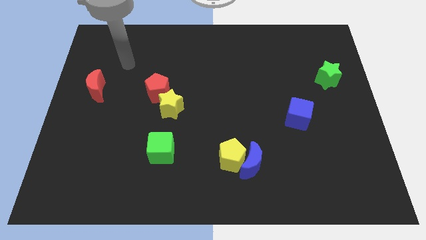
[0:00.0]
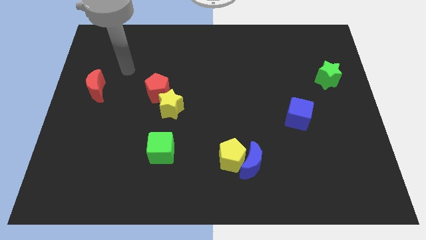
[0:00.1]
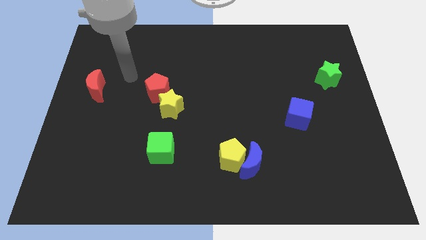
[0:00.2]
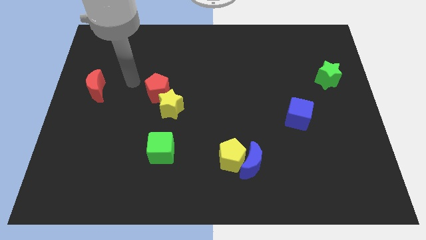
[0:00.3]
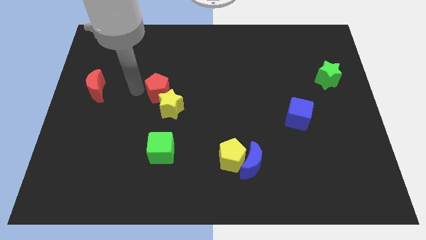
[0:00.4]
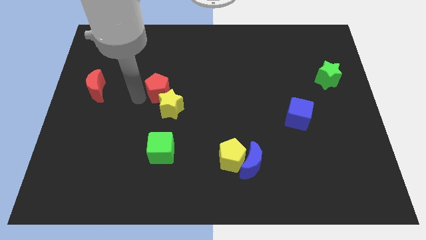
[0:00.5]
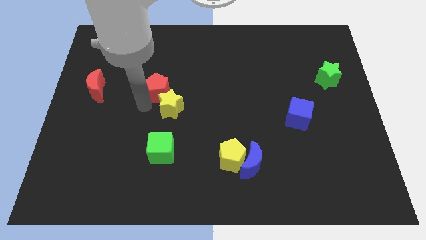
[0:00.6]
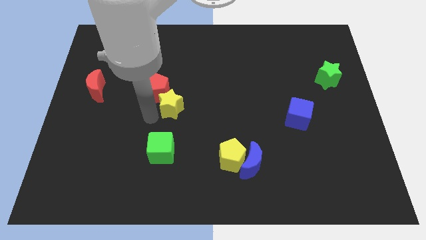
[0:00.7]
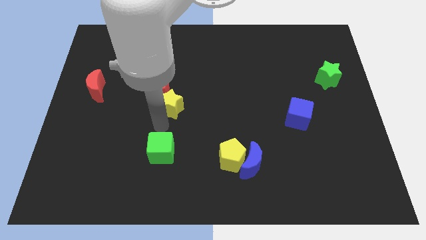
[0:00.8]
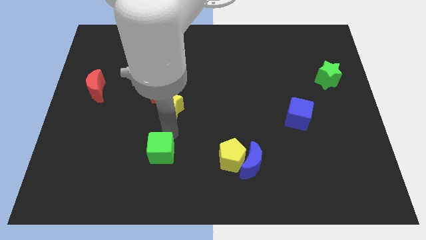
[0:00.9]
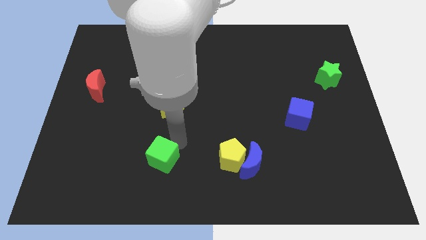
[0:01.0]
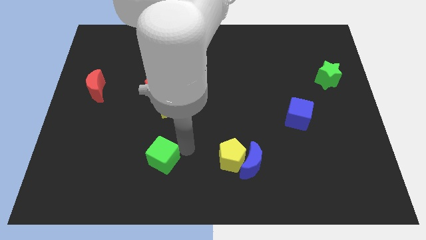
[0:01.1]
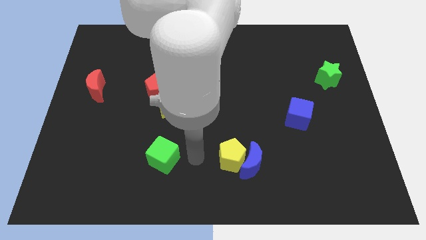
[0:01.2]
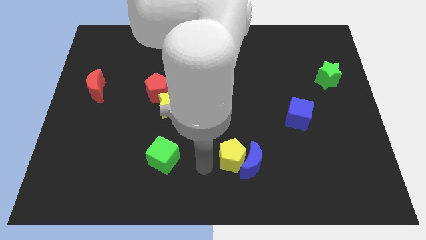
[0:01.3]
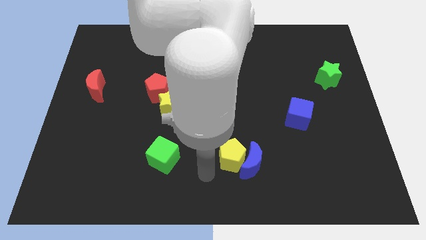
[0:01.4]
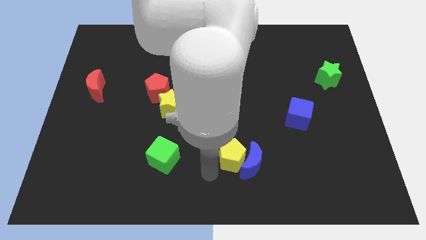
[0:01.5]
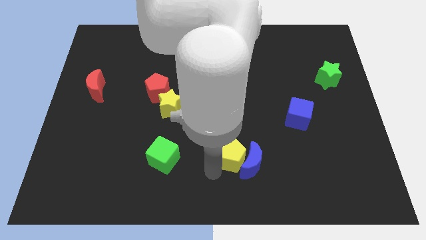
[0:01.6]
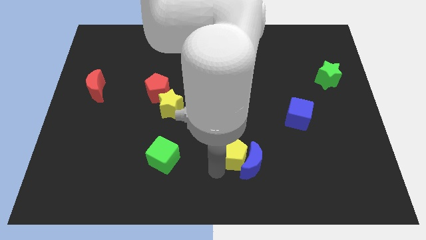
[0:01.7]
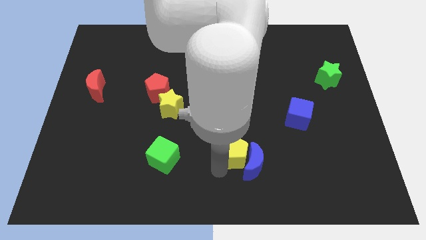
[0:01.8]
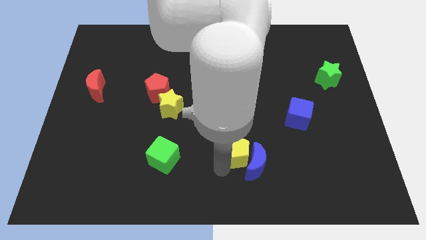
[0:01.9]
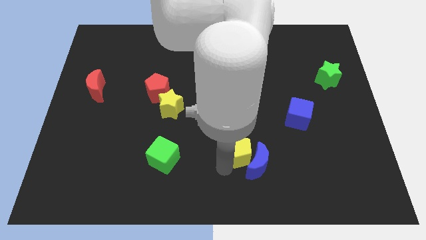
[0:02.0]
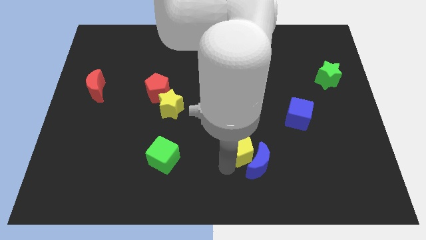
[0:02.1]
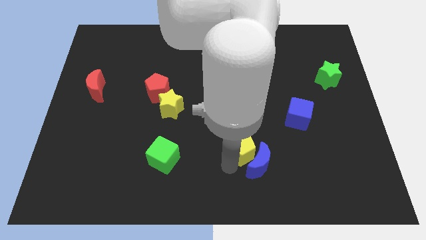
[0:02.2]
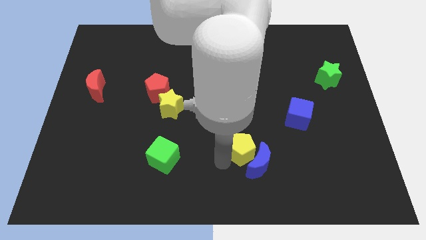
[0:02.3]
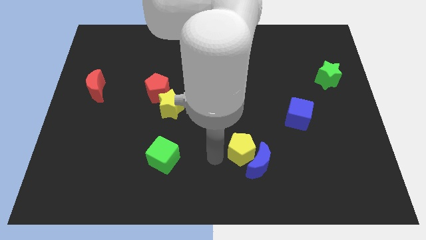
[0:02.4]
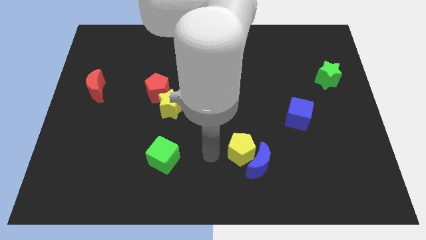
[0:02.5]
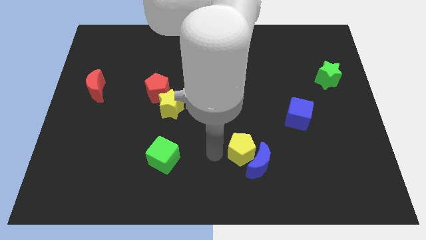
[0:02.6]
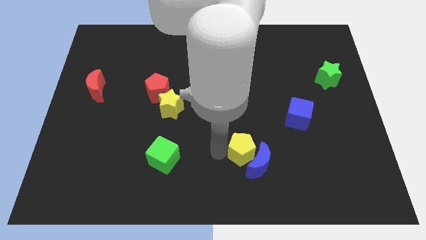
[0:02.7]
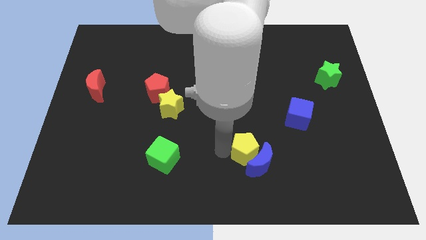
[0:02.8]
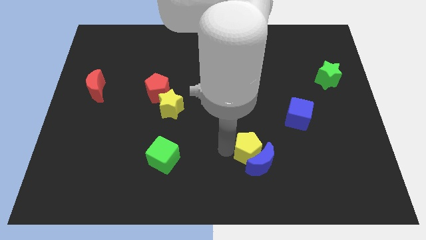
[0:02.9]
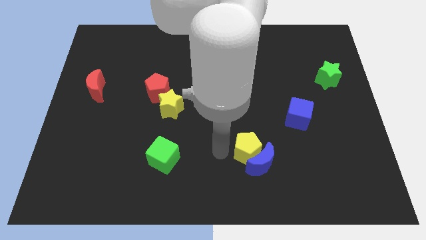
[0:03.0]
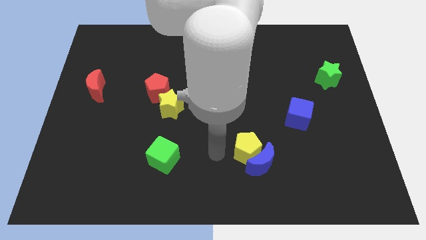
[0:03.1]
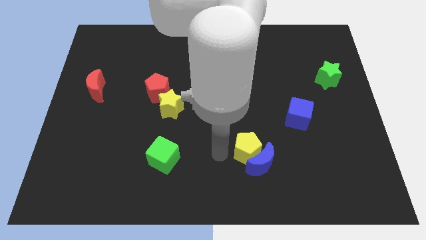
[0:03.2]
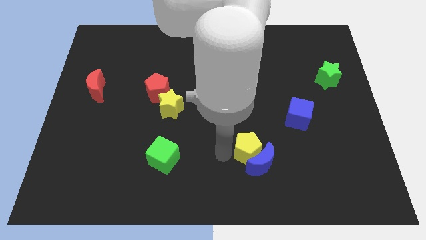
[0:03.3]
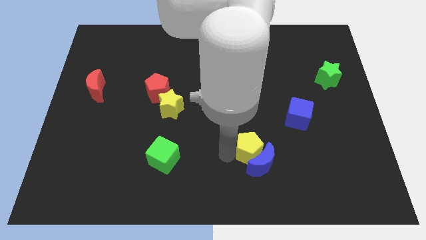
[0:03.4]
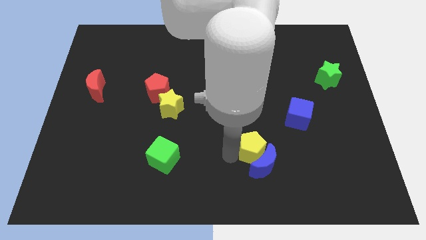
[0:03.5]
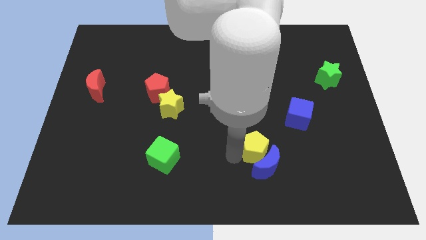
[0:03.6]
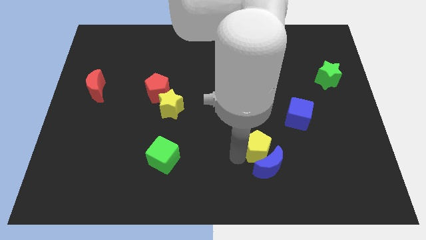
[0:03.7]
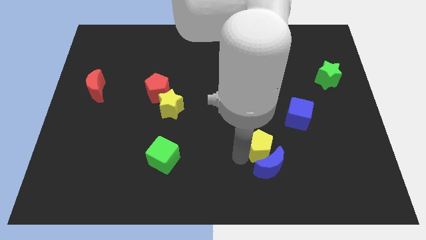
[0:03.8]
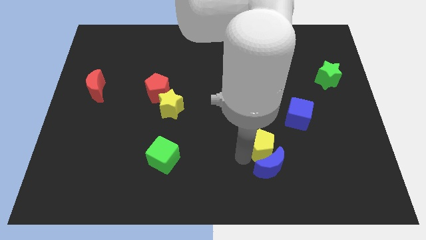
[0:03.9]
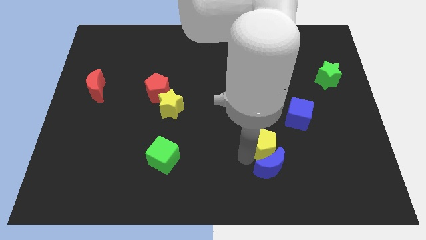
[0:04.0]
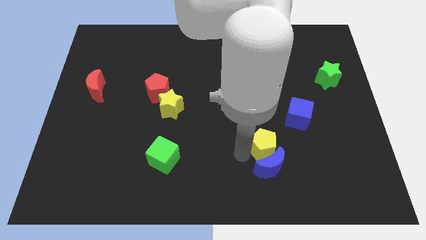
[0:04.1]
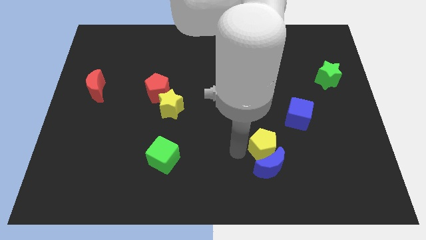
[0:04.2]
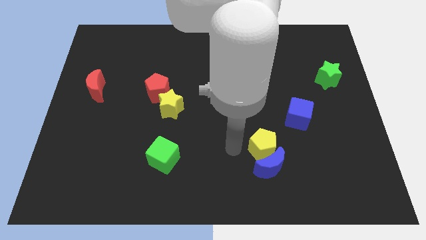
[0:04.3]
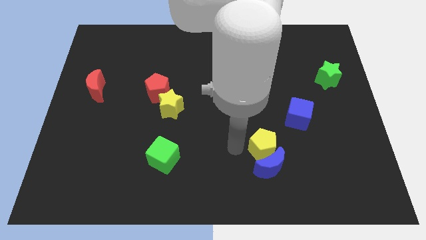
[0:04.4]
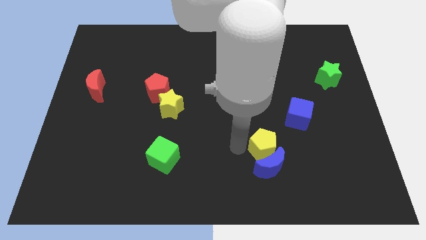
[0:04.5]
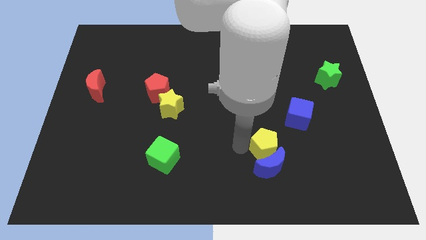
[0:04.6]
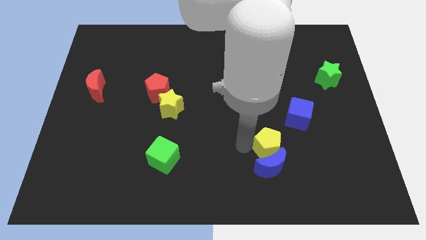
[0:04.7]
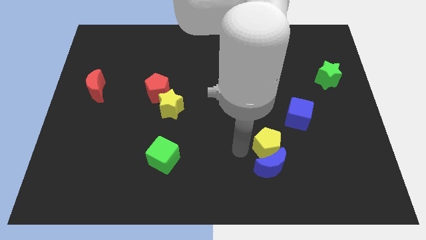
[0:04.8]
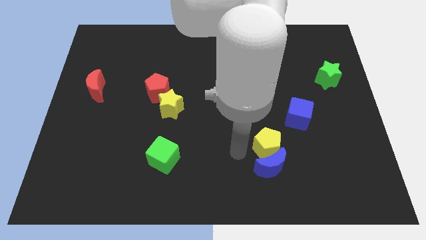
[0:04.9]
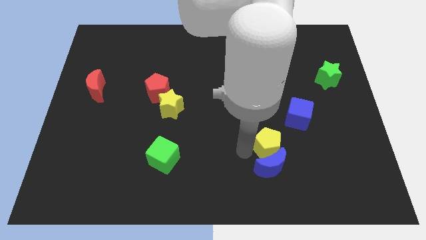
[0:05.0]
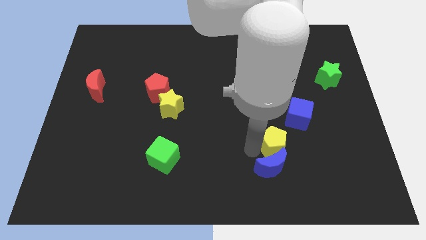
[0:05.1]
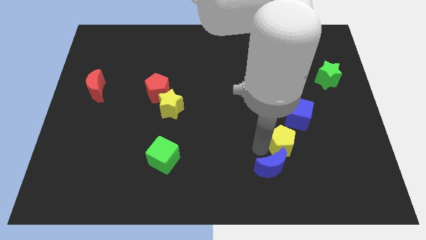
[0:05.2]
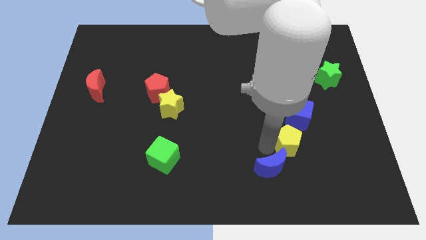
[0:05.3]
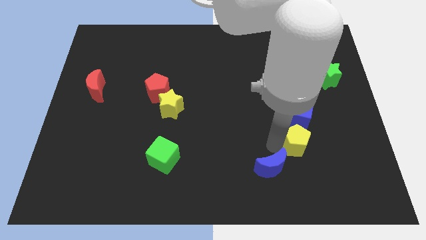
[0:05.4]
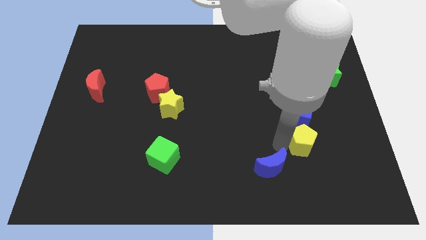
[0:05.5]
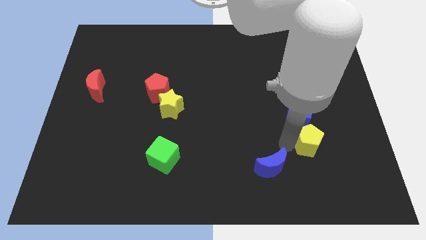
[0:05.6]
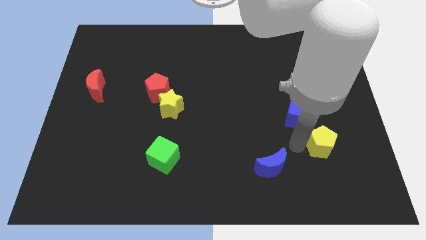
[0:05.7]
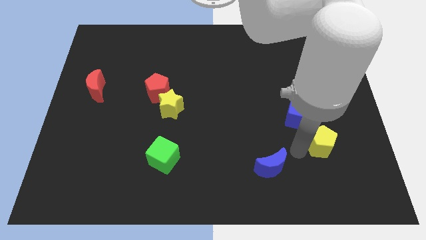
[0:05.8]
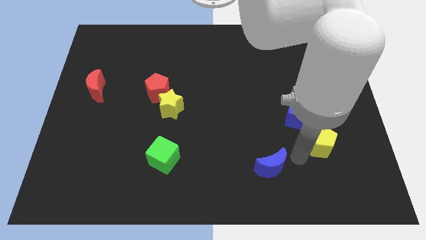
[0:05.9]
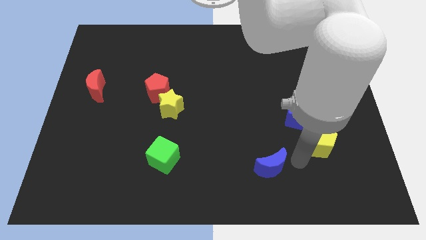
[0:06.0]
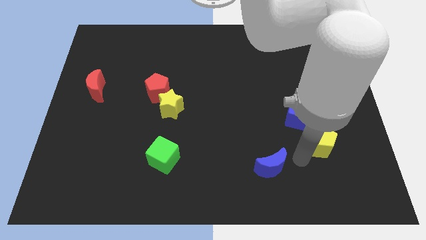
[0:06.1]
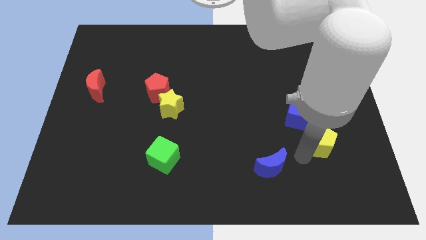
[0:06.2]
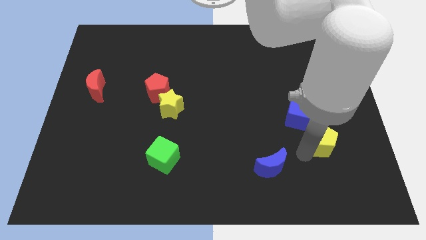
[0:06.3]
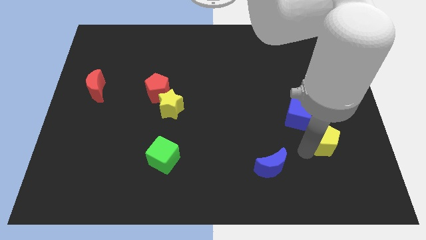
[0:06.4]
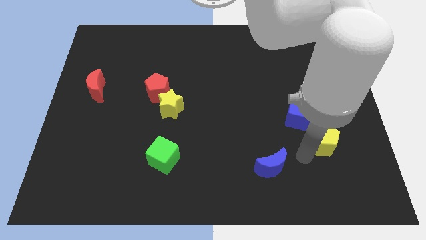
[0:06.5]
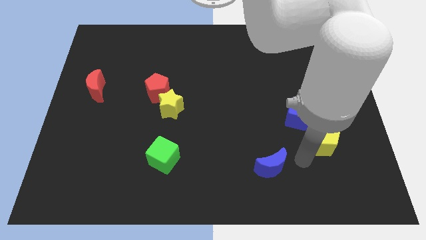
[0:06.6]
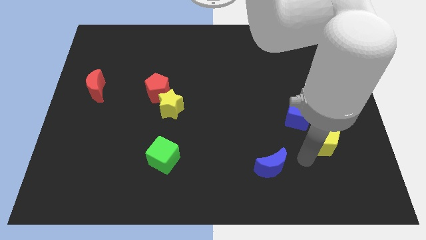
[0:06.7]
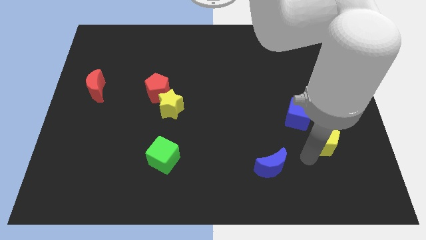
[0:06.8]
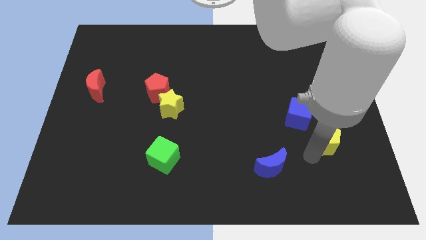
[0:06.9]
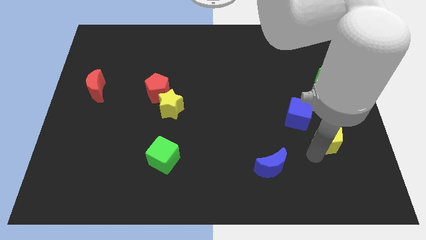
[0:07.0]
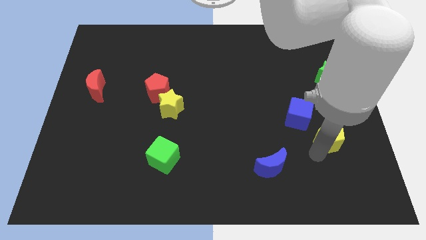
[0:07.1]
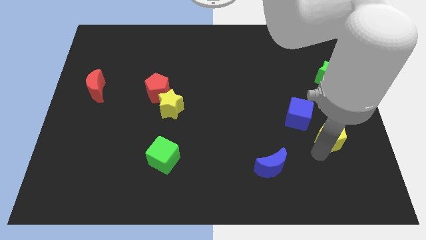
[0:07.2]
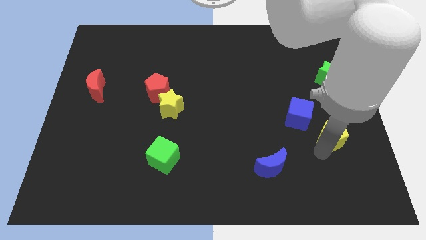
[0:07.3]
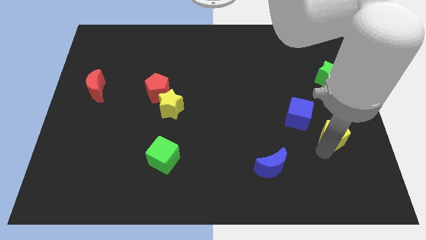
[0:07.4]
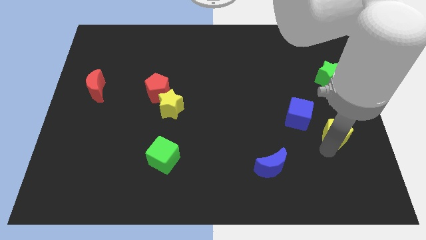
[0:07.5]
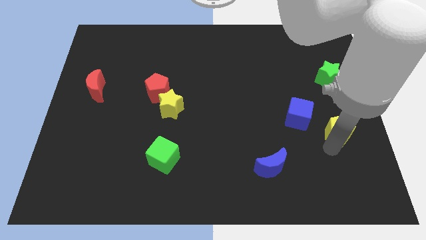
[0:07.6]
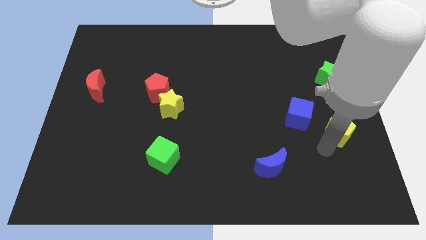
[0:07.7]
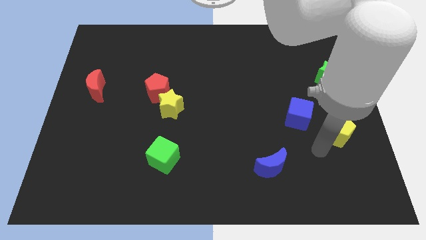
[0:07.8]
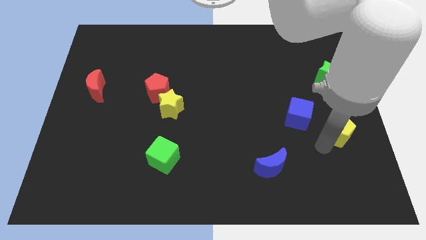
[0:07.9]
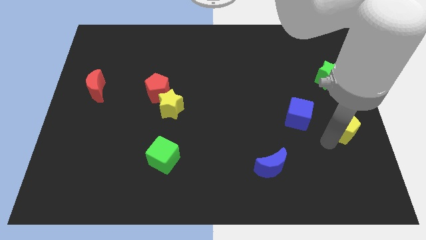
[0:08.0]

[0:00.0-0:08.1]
slide the yellow pentagon to the right side of the board
